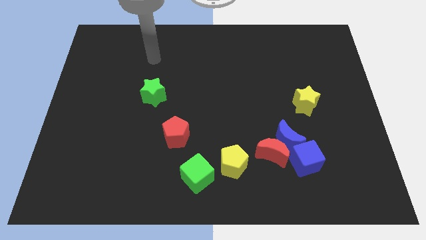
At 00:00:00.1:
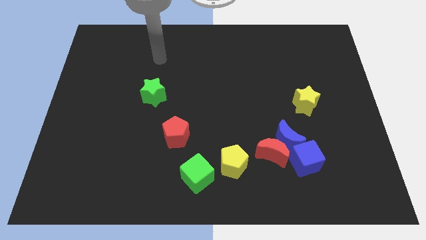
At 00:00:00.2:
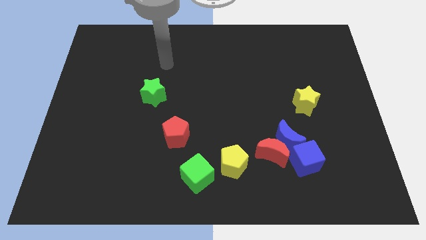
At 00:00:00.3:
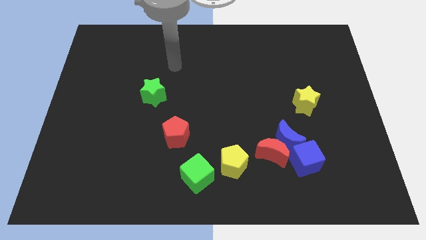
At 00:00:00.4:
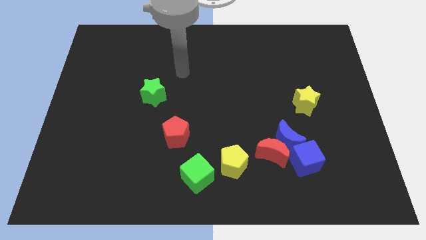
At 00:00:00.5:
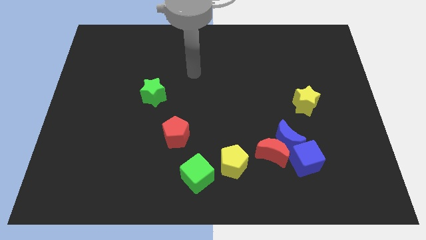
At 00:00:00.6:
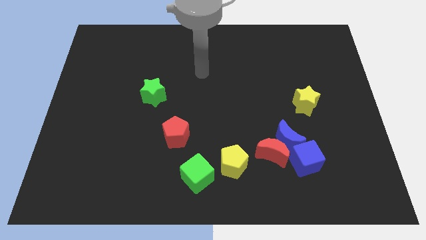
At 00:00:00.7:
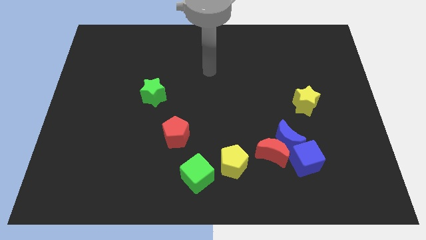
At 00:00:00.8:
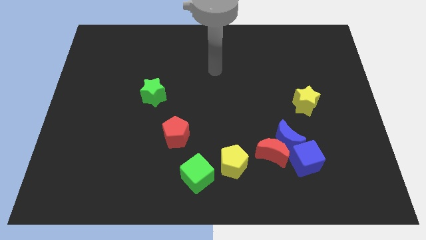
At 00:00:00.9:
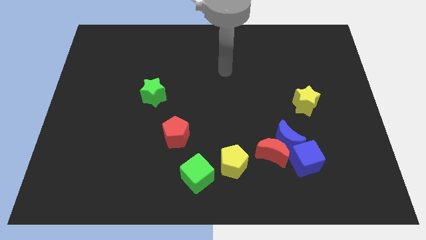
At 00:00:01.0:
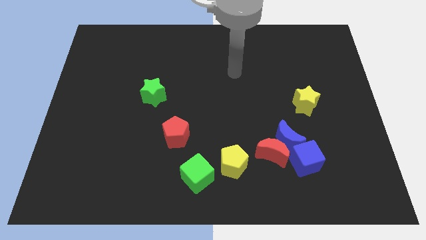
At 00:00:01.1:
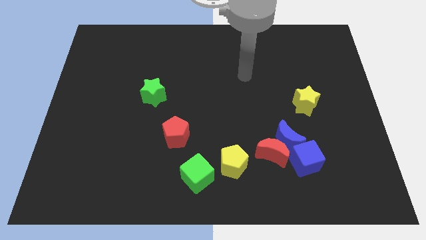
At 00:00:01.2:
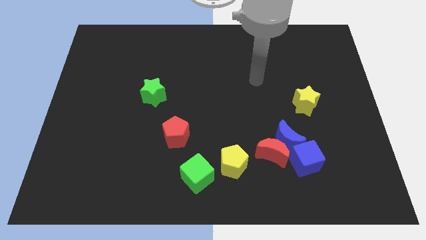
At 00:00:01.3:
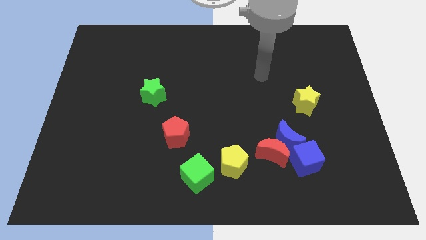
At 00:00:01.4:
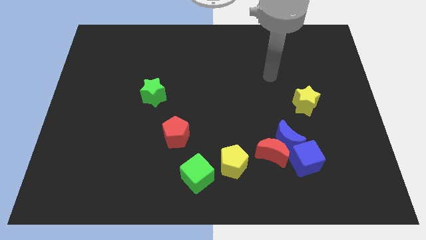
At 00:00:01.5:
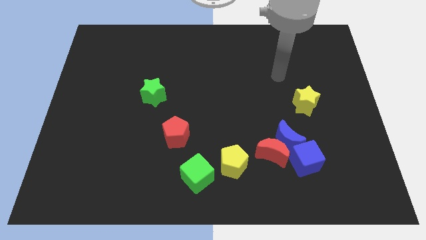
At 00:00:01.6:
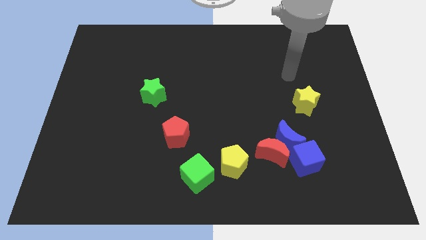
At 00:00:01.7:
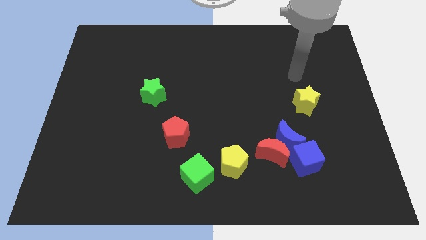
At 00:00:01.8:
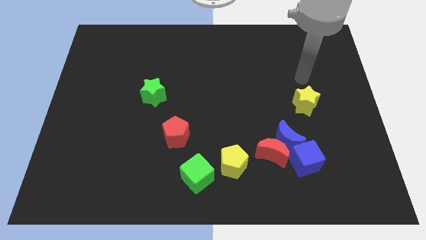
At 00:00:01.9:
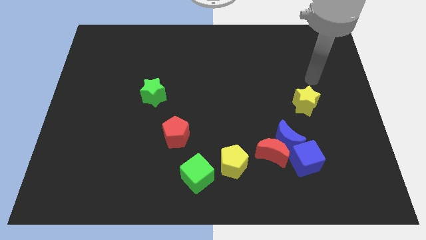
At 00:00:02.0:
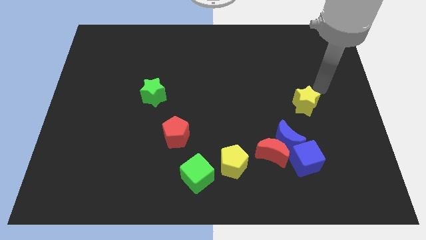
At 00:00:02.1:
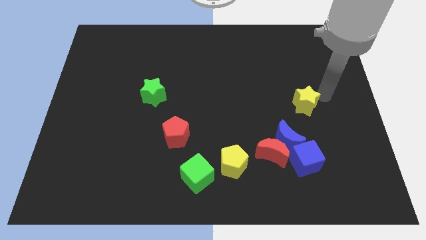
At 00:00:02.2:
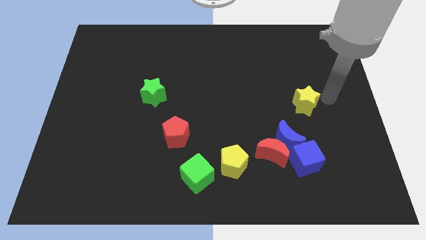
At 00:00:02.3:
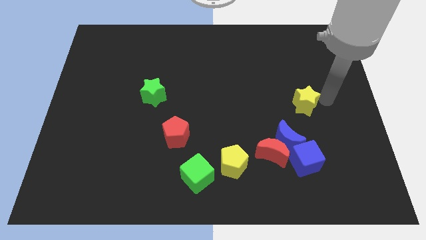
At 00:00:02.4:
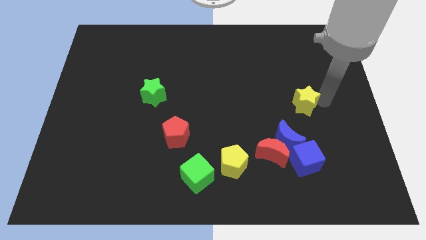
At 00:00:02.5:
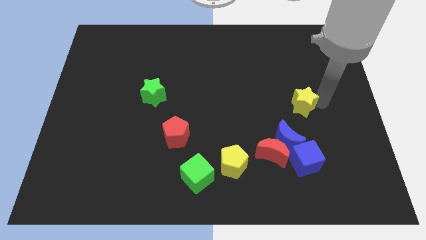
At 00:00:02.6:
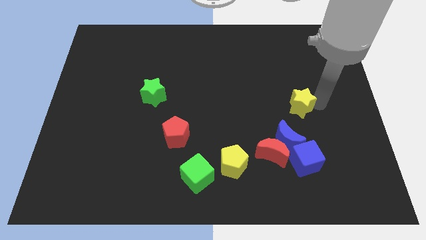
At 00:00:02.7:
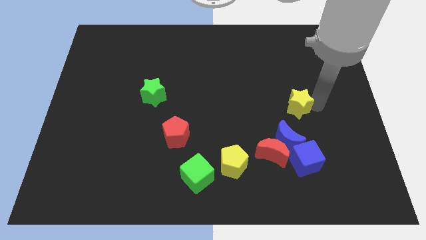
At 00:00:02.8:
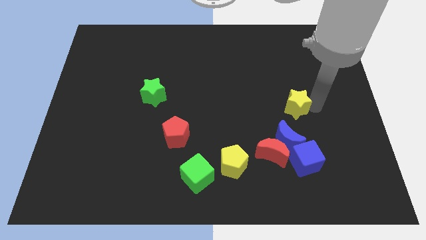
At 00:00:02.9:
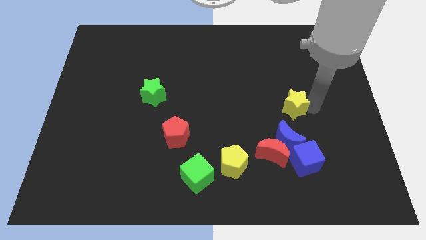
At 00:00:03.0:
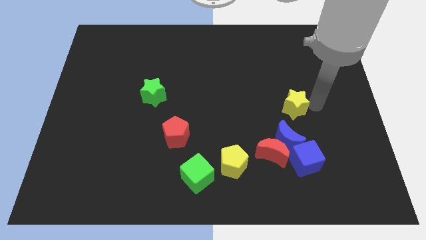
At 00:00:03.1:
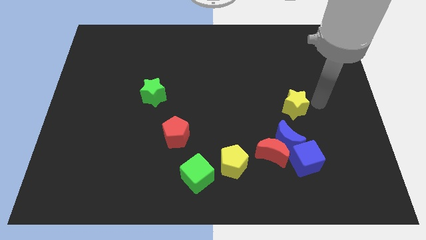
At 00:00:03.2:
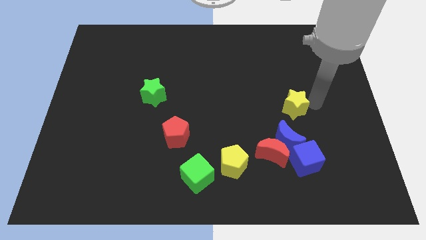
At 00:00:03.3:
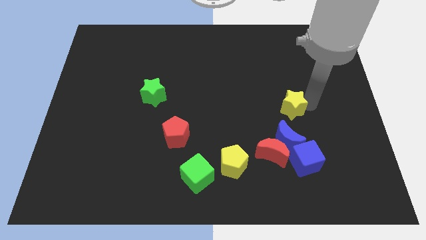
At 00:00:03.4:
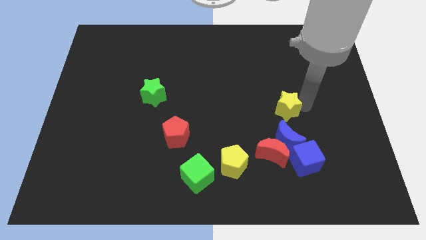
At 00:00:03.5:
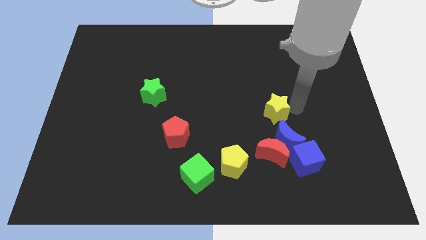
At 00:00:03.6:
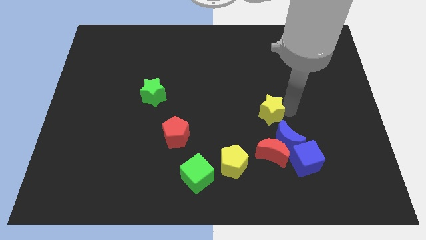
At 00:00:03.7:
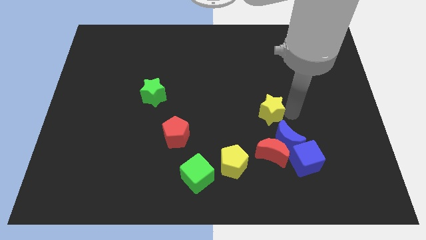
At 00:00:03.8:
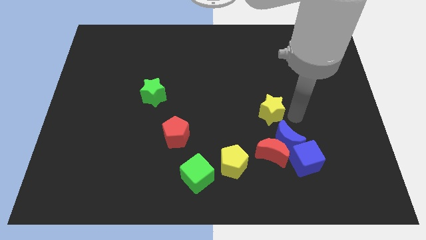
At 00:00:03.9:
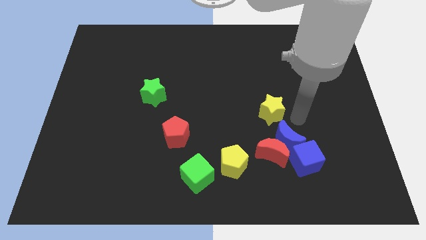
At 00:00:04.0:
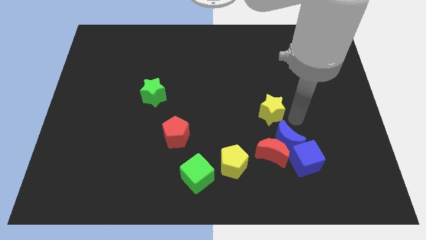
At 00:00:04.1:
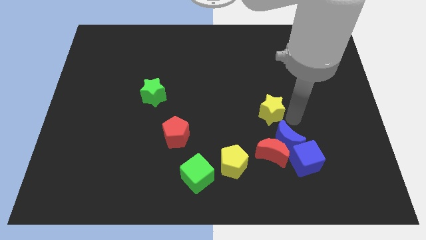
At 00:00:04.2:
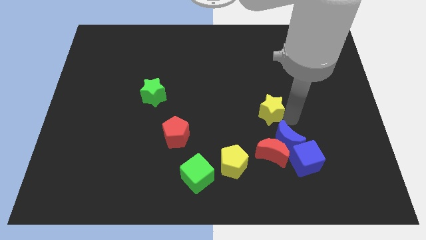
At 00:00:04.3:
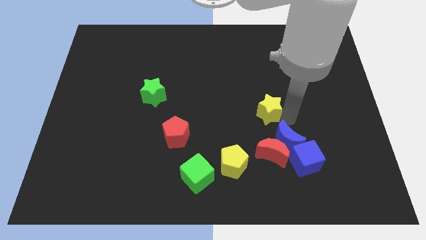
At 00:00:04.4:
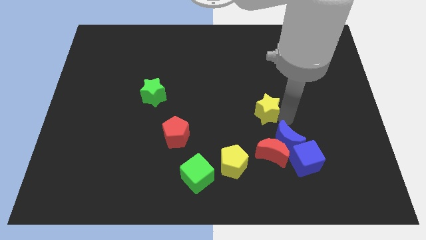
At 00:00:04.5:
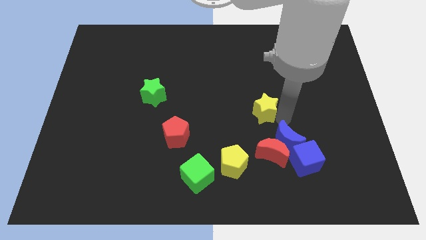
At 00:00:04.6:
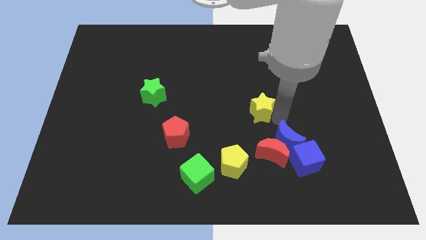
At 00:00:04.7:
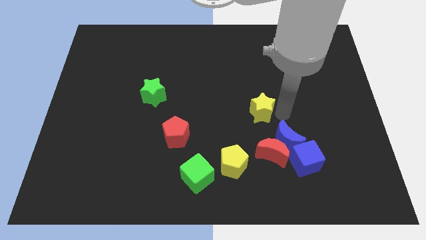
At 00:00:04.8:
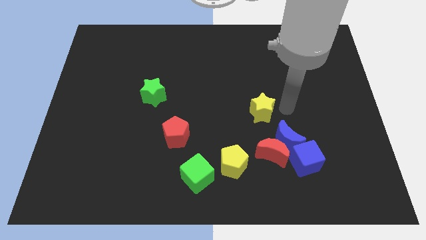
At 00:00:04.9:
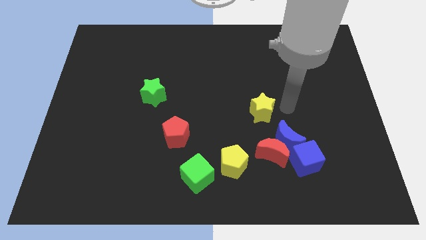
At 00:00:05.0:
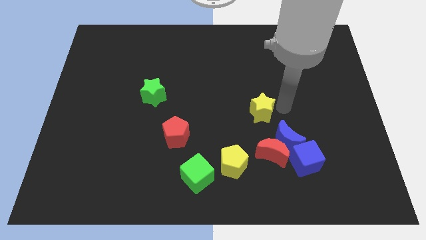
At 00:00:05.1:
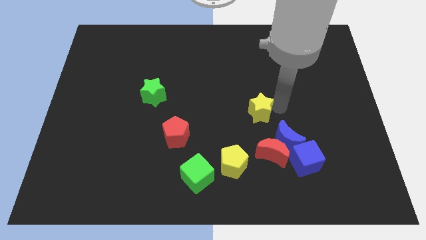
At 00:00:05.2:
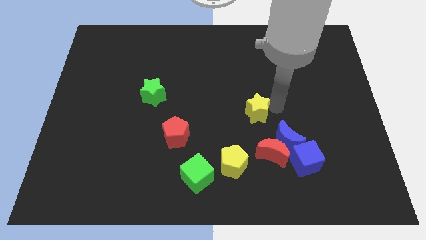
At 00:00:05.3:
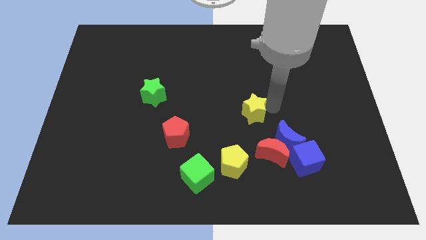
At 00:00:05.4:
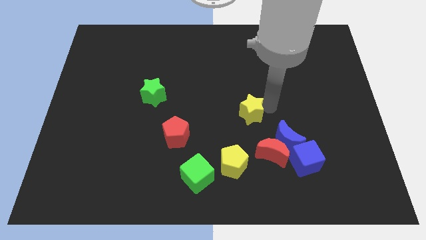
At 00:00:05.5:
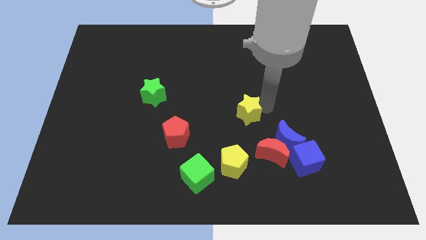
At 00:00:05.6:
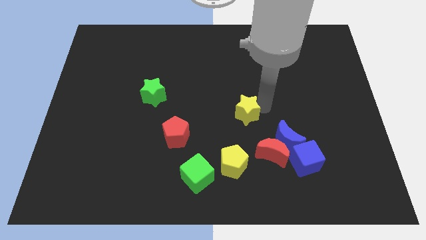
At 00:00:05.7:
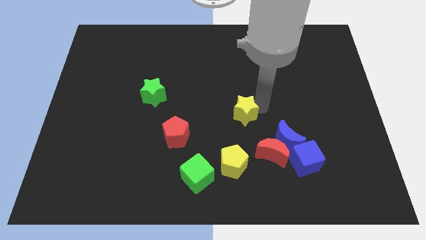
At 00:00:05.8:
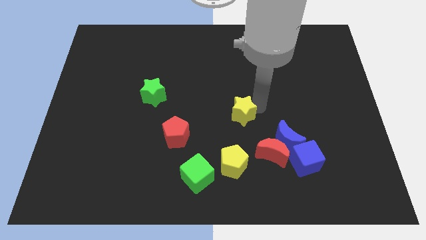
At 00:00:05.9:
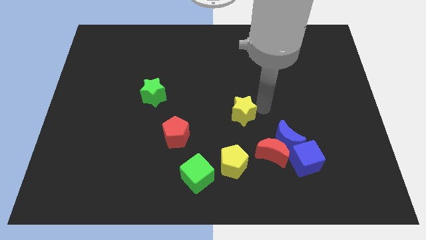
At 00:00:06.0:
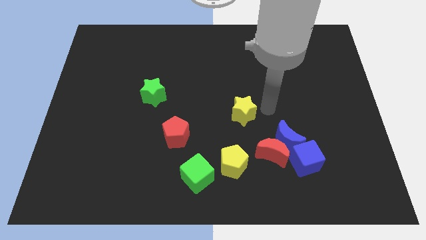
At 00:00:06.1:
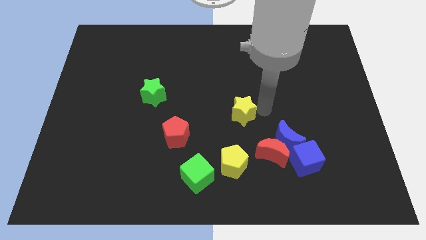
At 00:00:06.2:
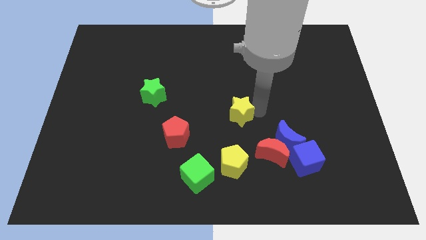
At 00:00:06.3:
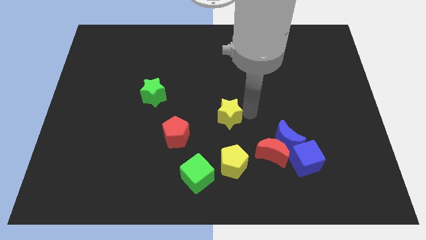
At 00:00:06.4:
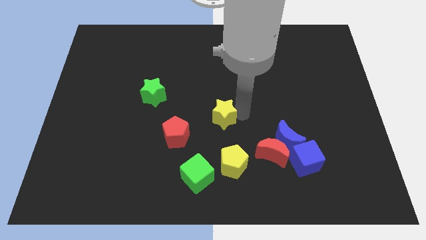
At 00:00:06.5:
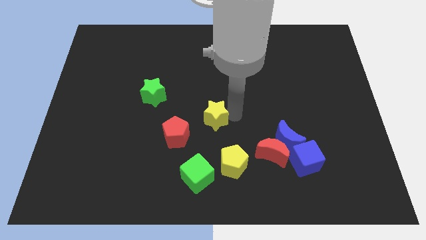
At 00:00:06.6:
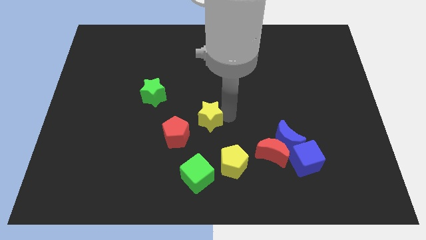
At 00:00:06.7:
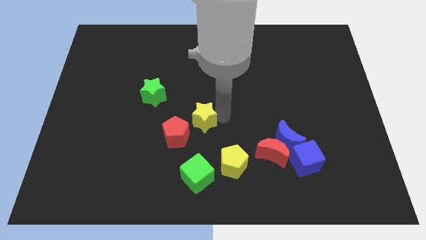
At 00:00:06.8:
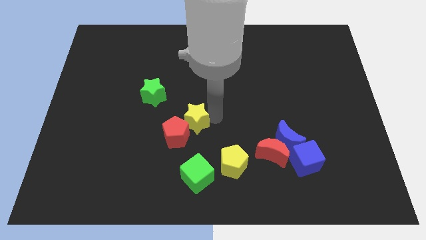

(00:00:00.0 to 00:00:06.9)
put the yellow star to the red pentagon

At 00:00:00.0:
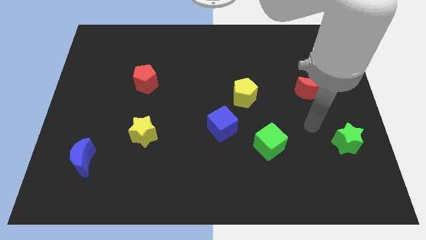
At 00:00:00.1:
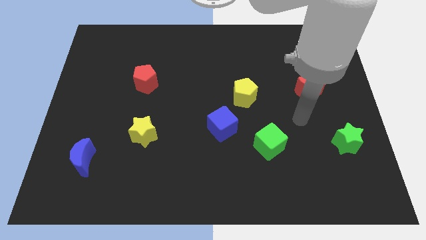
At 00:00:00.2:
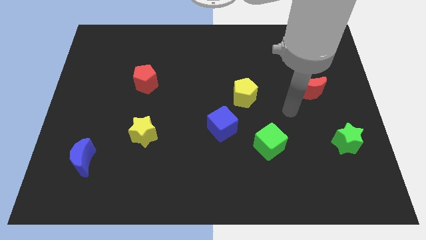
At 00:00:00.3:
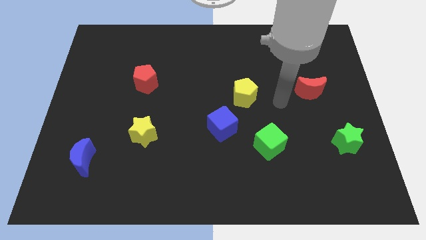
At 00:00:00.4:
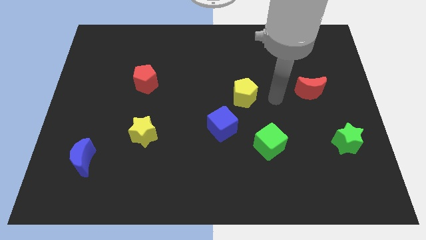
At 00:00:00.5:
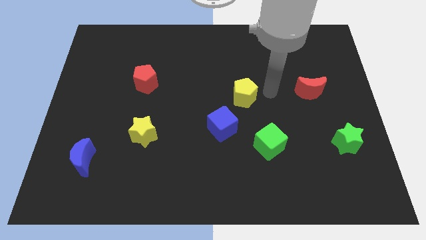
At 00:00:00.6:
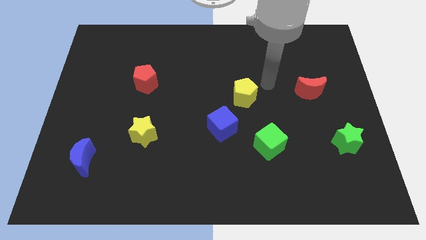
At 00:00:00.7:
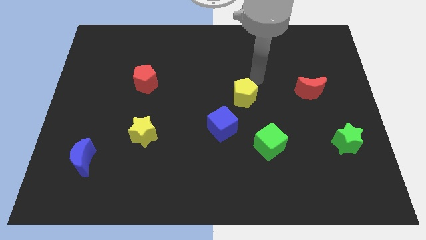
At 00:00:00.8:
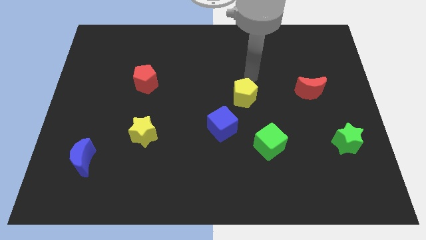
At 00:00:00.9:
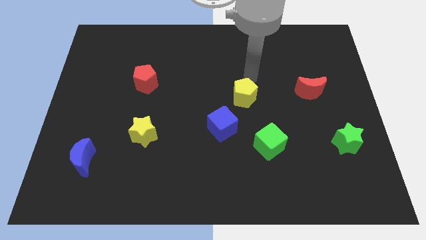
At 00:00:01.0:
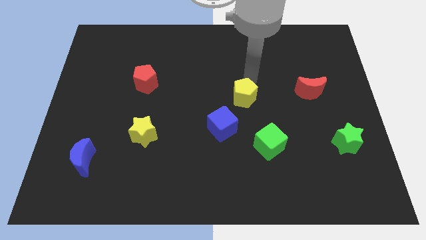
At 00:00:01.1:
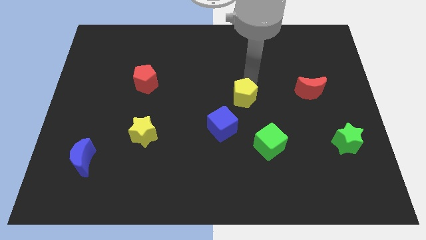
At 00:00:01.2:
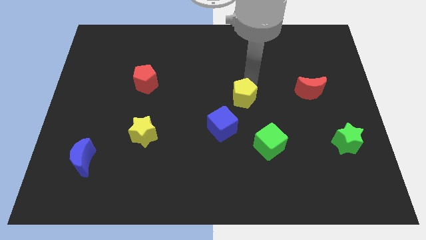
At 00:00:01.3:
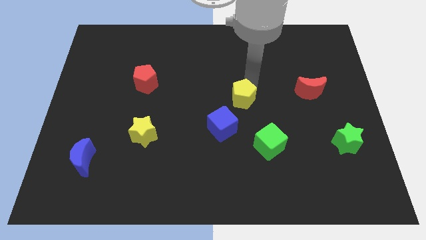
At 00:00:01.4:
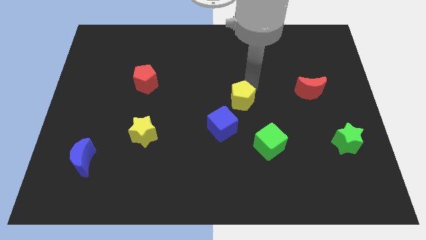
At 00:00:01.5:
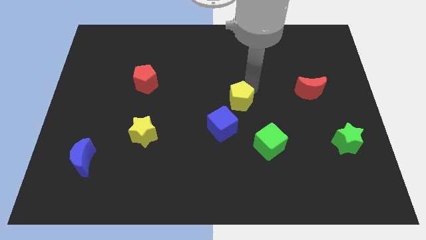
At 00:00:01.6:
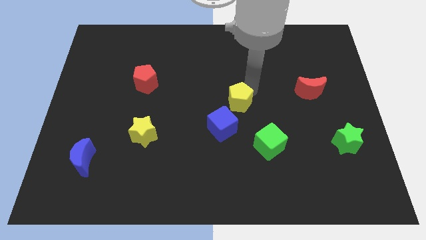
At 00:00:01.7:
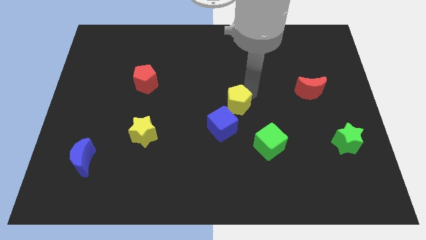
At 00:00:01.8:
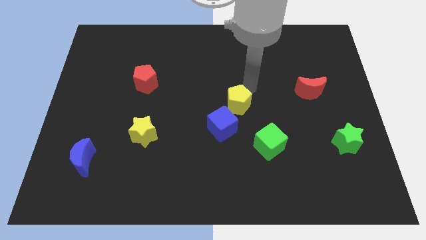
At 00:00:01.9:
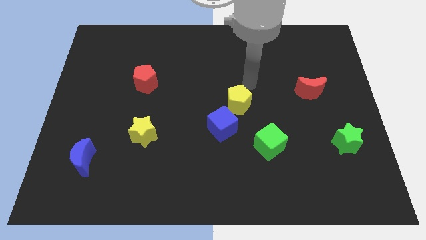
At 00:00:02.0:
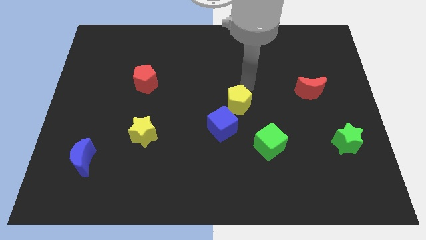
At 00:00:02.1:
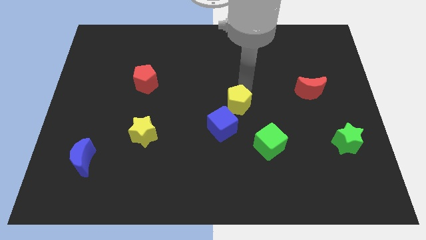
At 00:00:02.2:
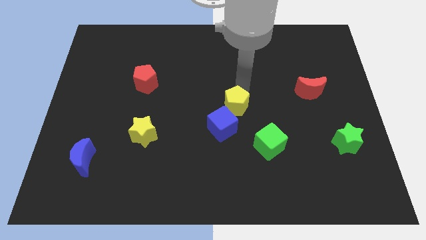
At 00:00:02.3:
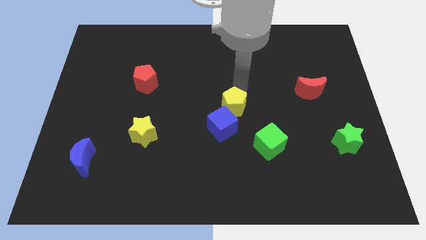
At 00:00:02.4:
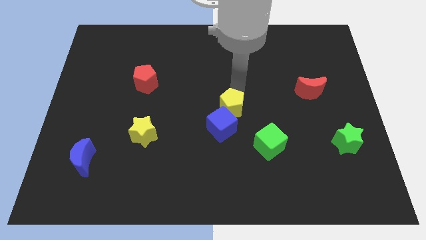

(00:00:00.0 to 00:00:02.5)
move the yellow pentagon towards the blue cube
